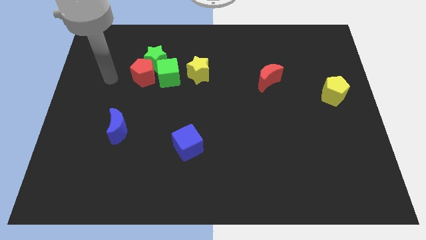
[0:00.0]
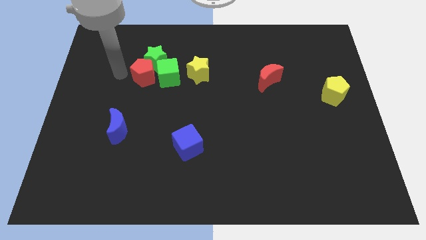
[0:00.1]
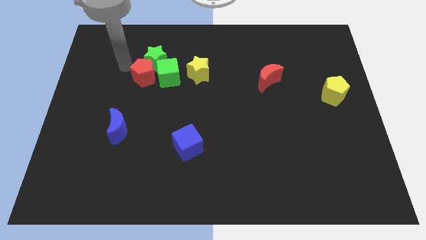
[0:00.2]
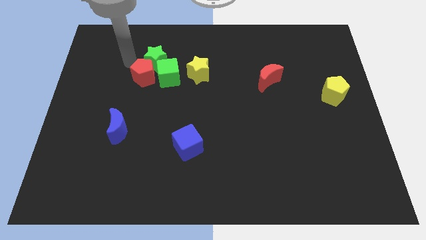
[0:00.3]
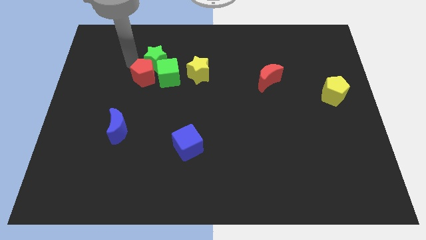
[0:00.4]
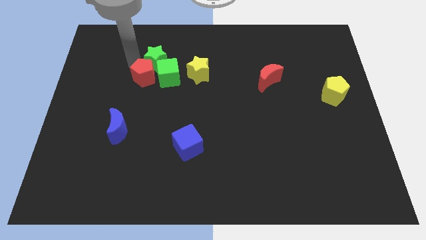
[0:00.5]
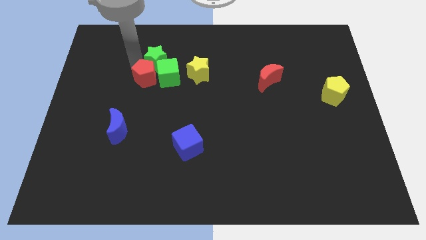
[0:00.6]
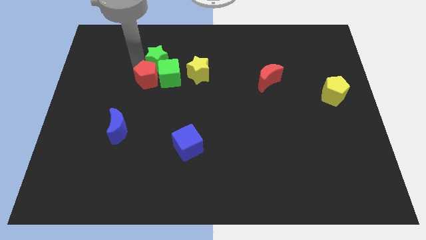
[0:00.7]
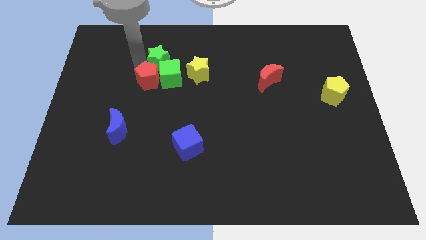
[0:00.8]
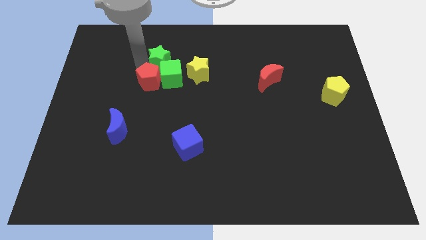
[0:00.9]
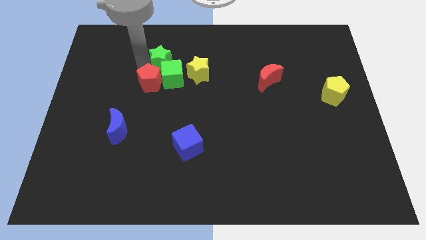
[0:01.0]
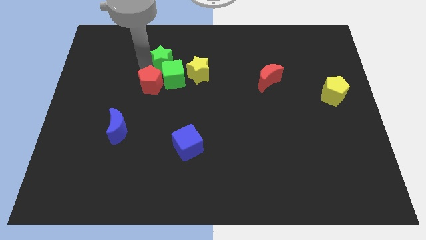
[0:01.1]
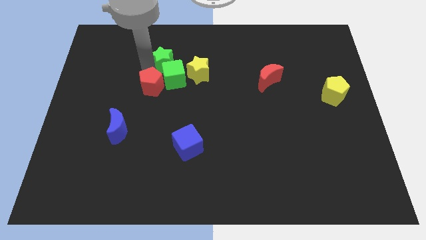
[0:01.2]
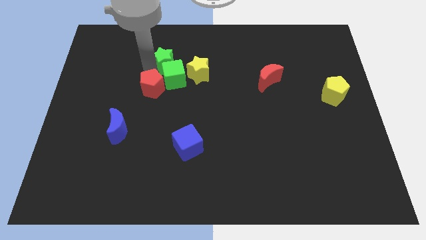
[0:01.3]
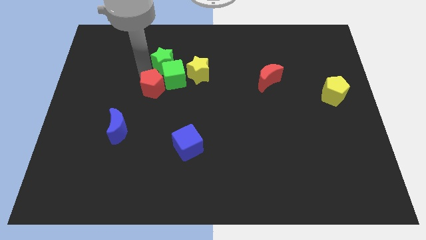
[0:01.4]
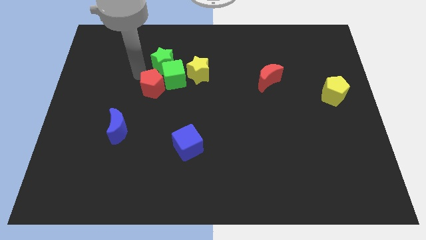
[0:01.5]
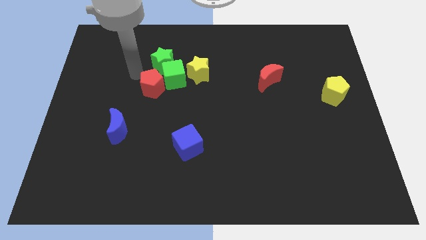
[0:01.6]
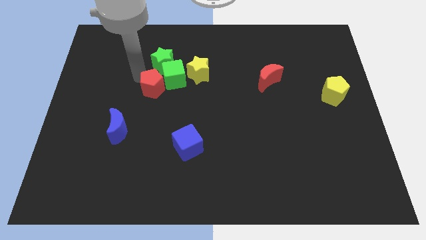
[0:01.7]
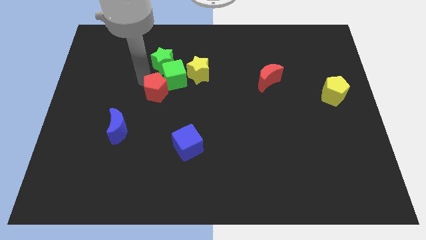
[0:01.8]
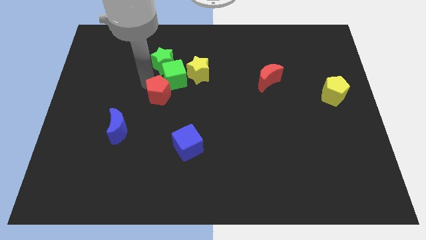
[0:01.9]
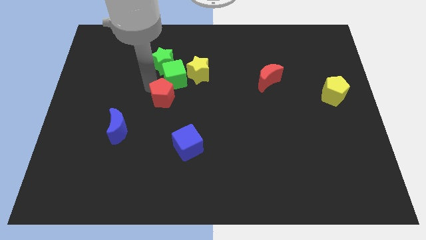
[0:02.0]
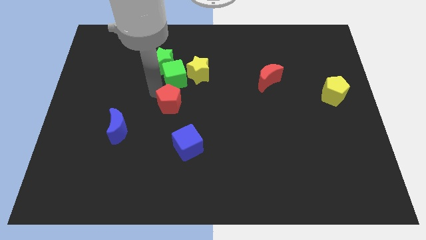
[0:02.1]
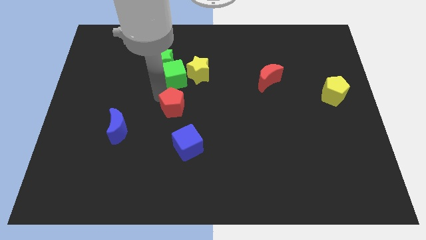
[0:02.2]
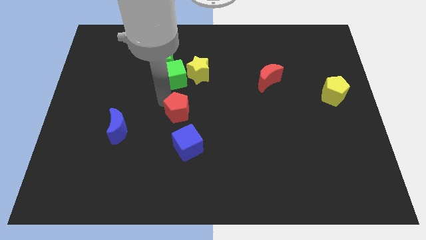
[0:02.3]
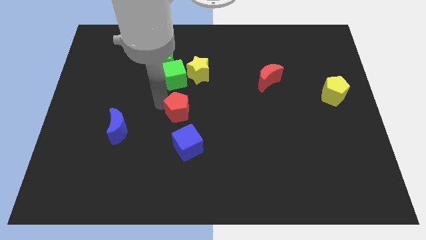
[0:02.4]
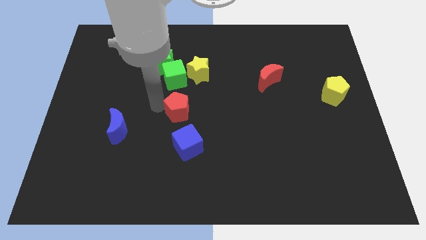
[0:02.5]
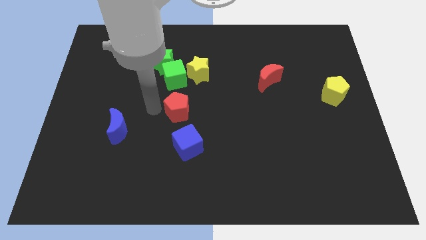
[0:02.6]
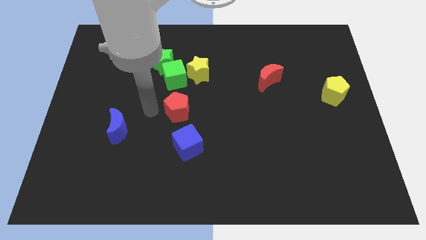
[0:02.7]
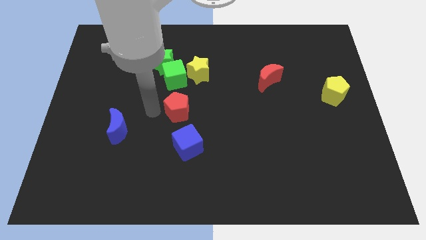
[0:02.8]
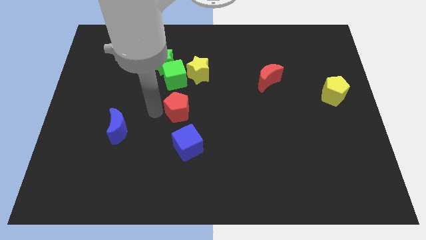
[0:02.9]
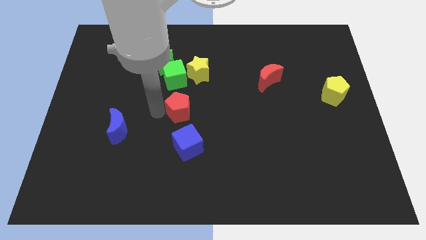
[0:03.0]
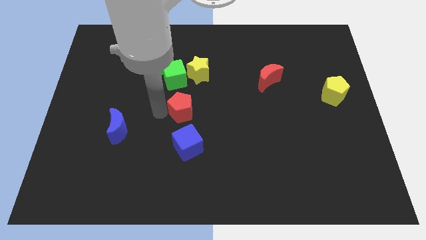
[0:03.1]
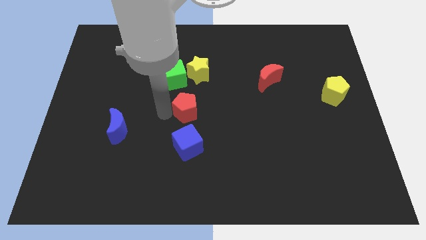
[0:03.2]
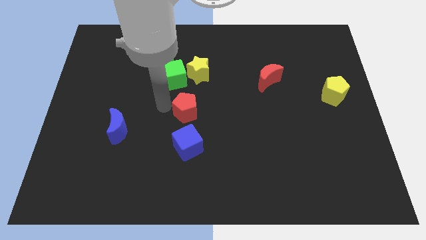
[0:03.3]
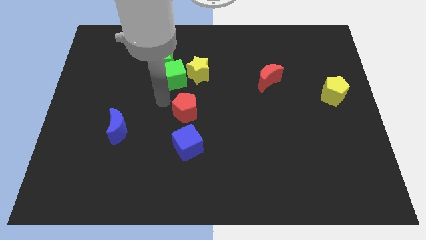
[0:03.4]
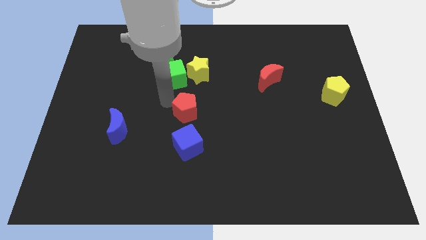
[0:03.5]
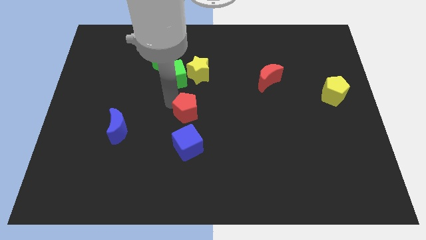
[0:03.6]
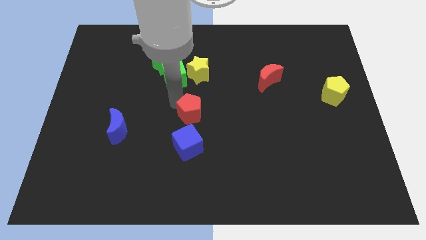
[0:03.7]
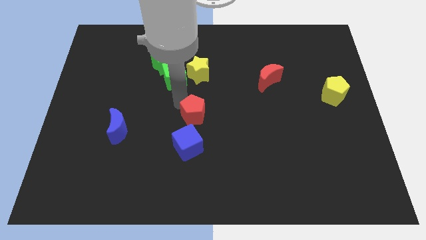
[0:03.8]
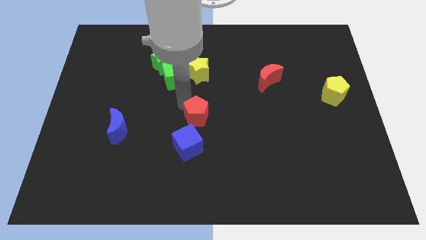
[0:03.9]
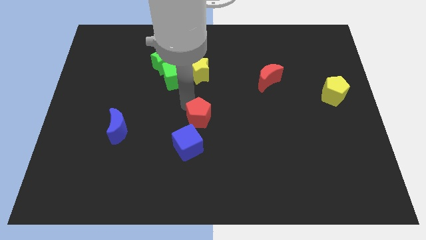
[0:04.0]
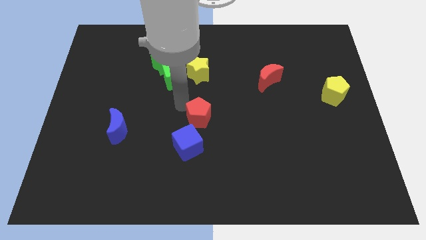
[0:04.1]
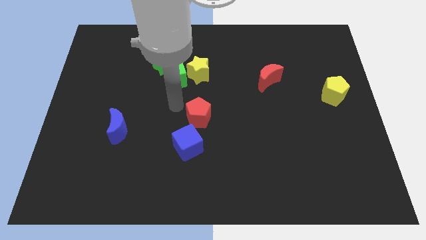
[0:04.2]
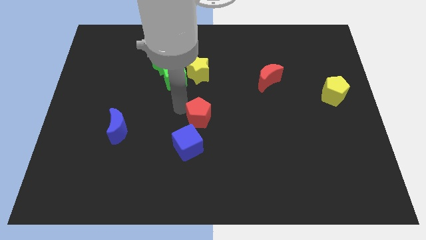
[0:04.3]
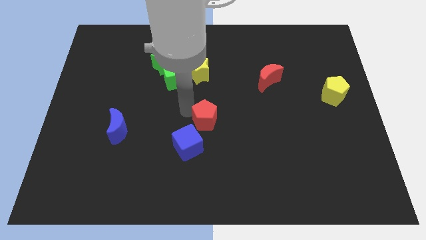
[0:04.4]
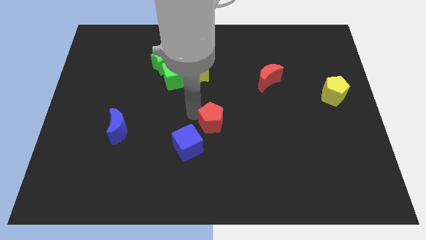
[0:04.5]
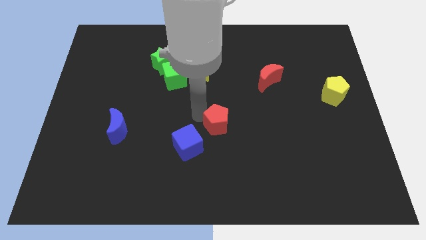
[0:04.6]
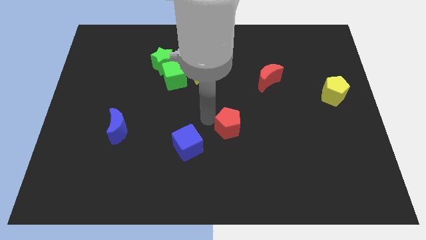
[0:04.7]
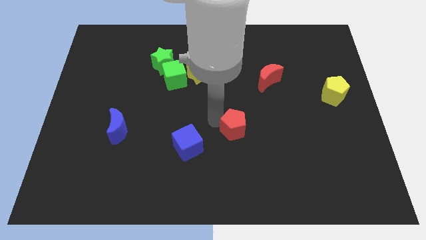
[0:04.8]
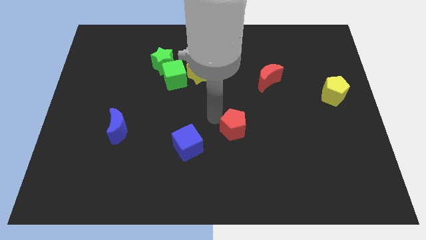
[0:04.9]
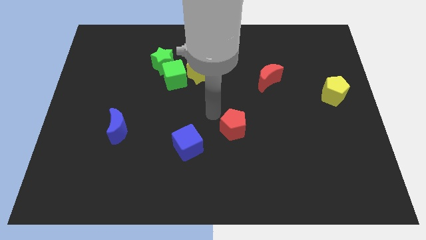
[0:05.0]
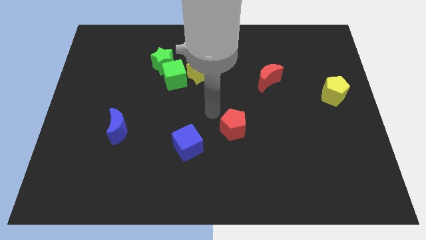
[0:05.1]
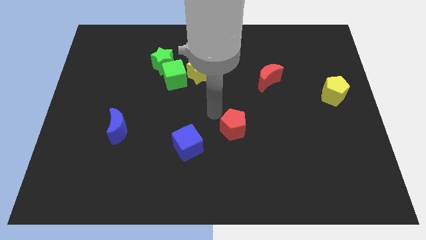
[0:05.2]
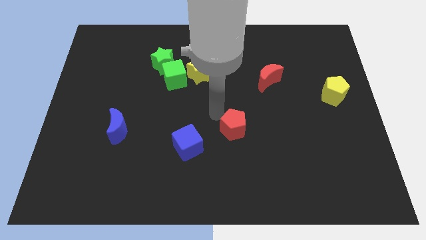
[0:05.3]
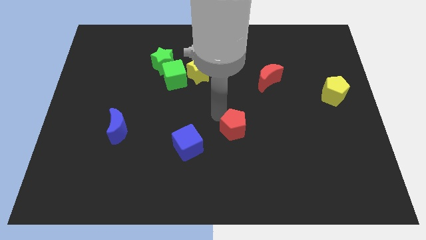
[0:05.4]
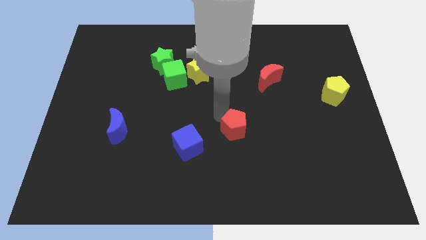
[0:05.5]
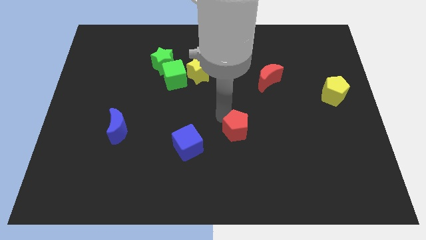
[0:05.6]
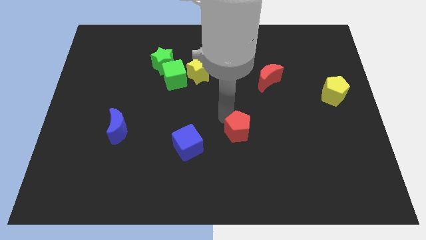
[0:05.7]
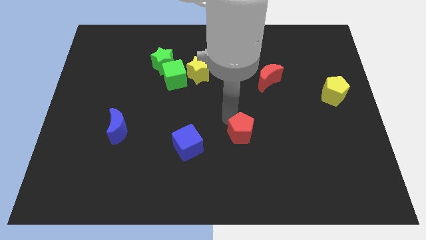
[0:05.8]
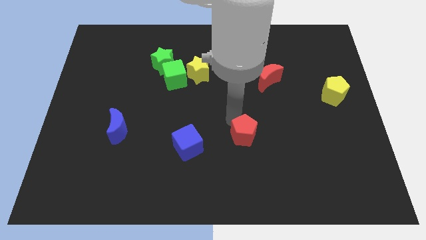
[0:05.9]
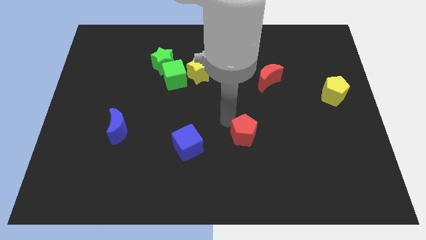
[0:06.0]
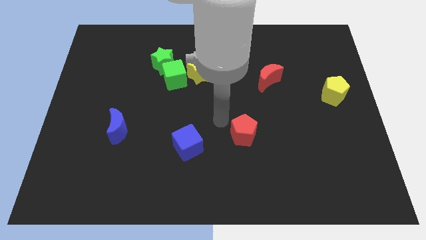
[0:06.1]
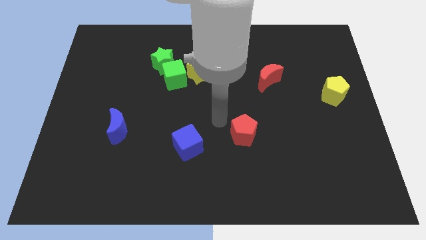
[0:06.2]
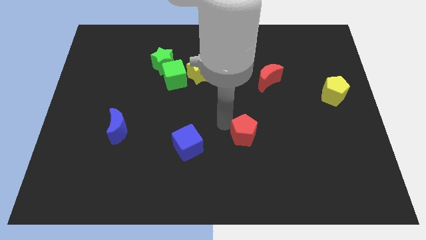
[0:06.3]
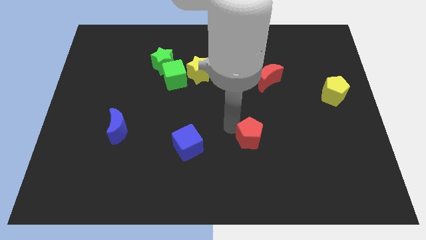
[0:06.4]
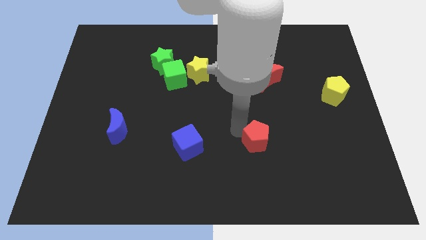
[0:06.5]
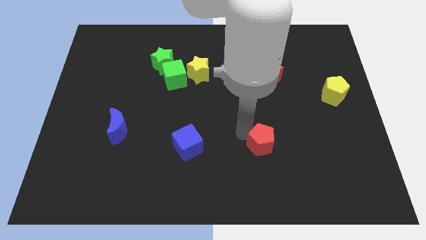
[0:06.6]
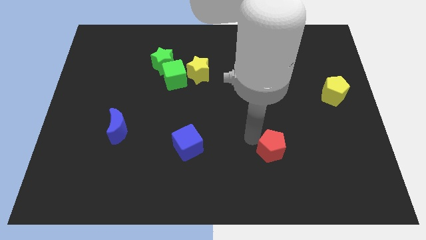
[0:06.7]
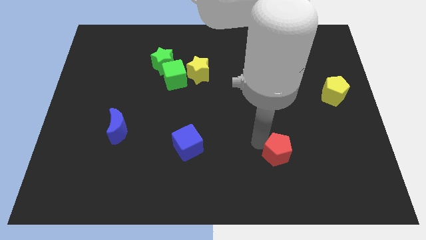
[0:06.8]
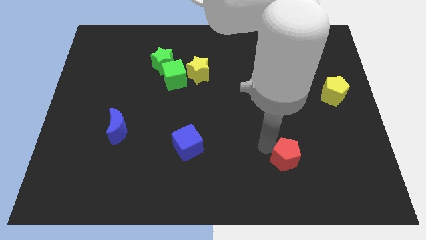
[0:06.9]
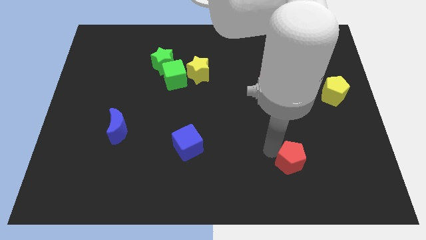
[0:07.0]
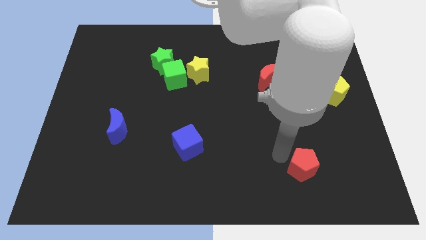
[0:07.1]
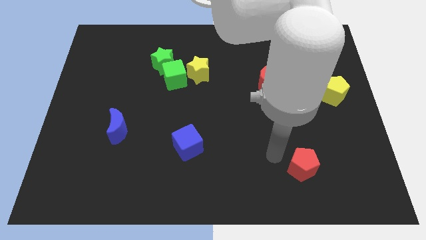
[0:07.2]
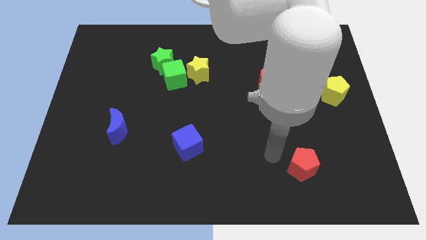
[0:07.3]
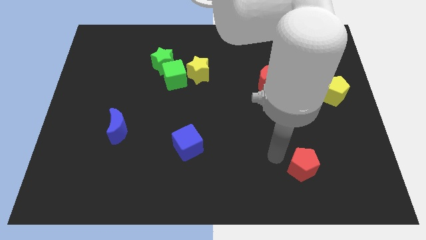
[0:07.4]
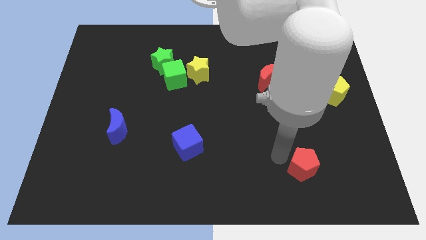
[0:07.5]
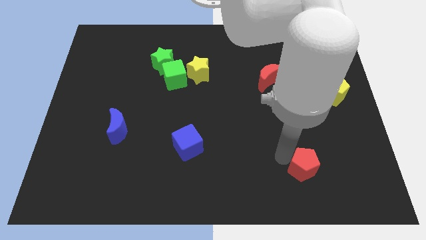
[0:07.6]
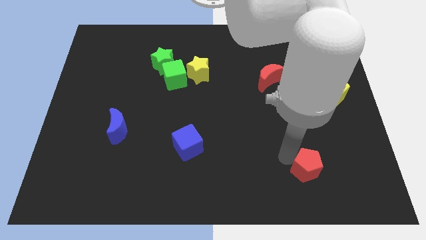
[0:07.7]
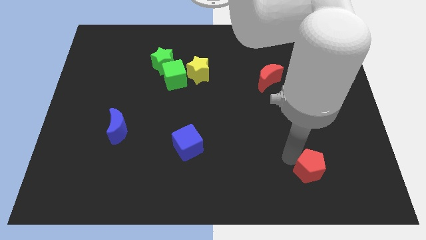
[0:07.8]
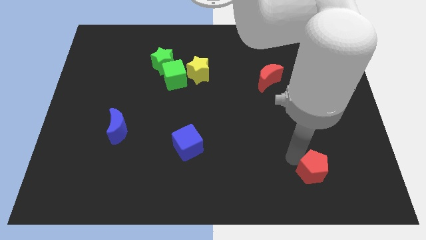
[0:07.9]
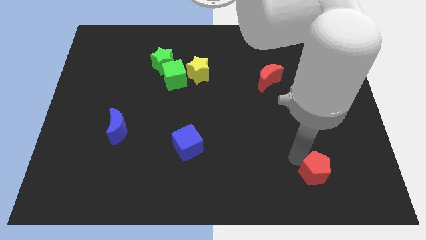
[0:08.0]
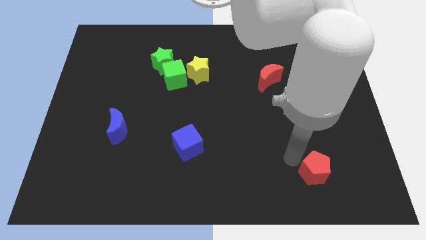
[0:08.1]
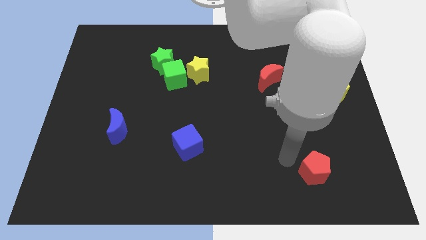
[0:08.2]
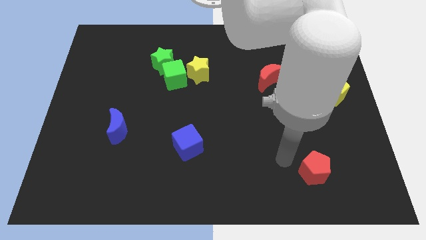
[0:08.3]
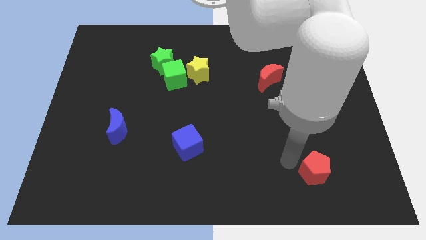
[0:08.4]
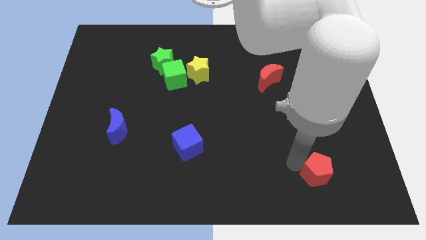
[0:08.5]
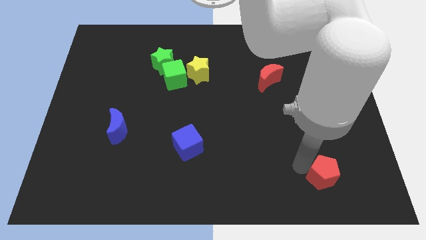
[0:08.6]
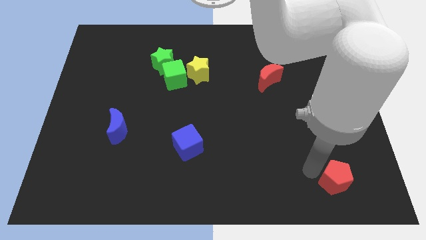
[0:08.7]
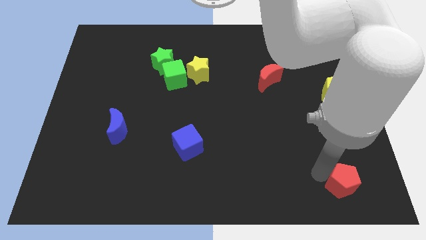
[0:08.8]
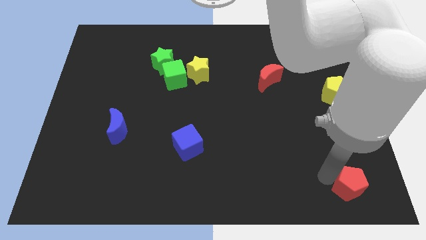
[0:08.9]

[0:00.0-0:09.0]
slide the red pentagon to the bottom right corner
